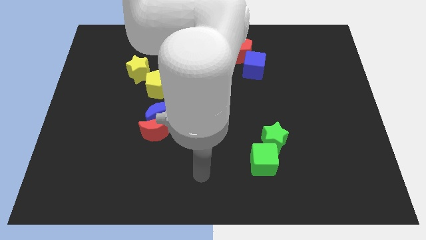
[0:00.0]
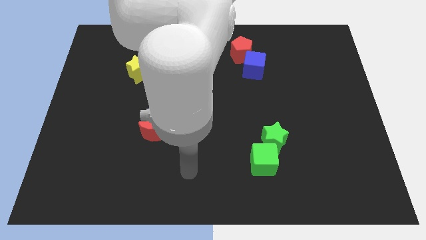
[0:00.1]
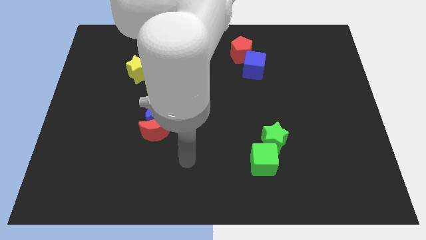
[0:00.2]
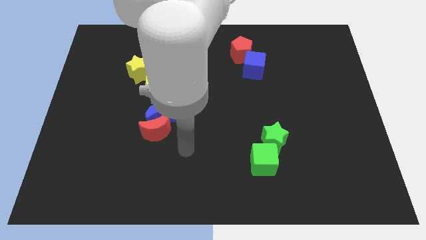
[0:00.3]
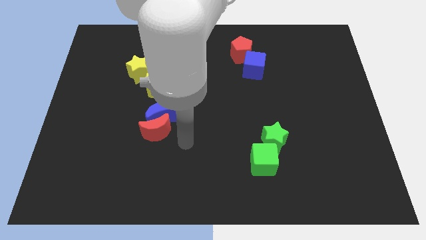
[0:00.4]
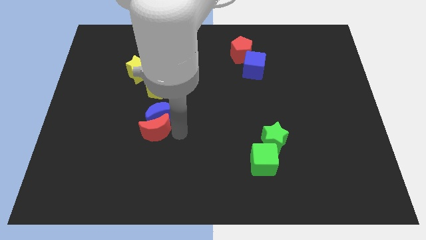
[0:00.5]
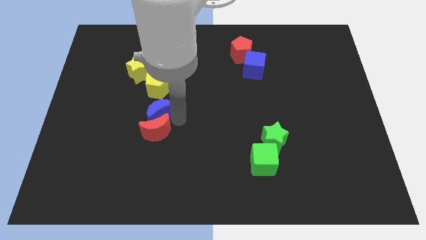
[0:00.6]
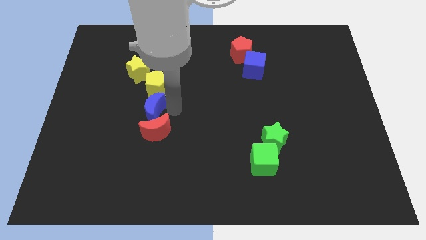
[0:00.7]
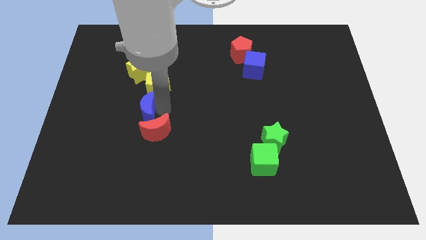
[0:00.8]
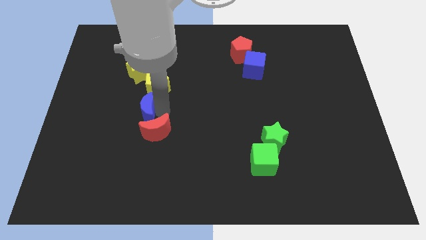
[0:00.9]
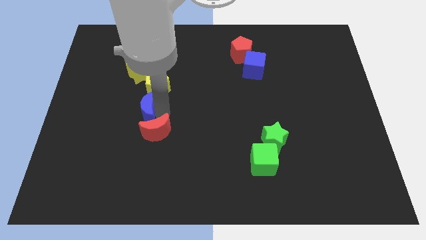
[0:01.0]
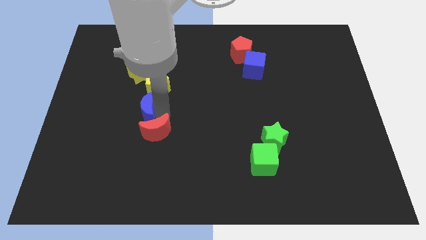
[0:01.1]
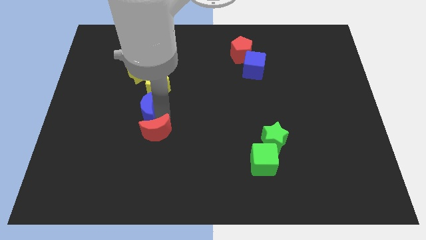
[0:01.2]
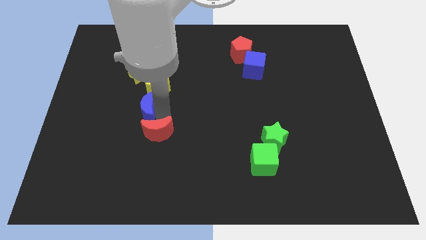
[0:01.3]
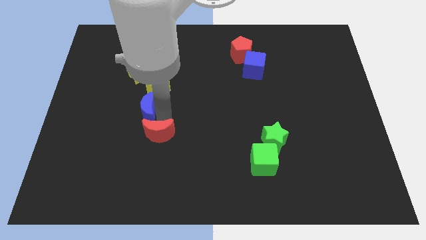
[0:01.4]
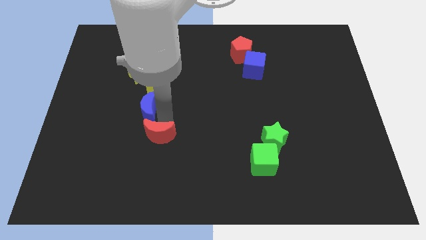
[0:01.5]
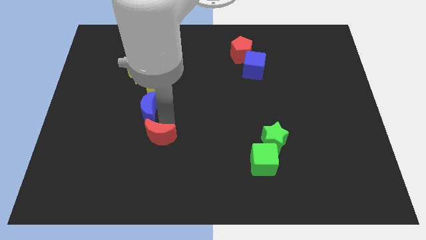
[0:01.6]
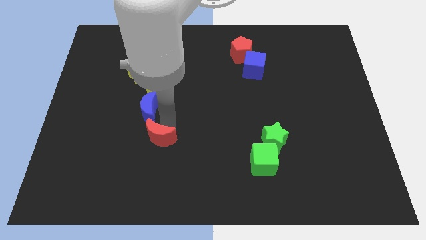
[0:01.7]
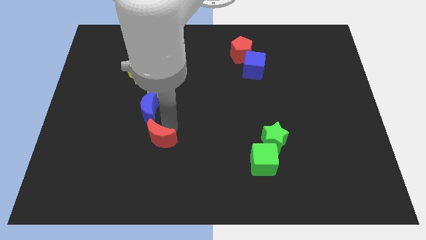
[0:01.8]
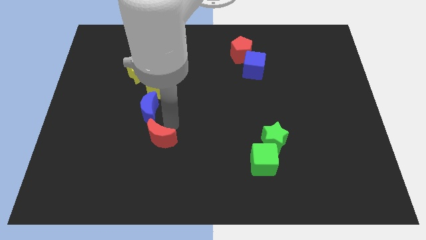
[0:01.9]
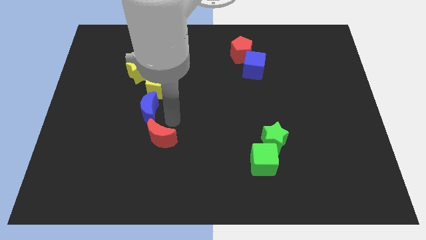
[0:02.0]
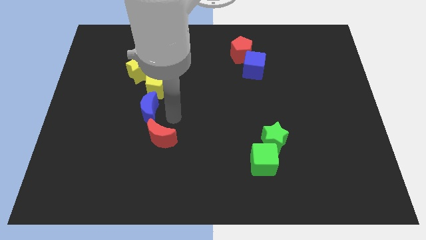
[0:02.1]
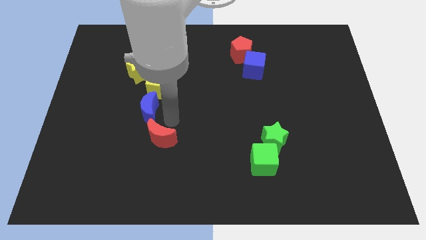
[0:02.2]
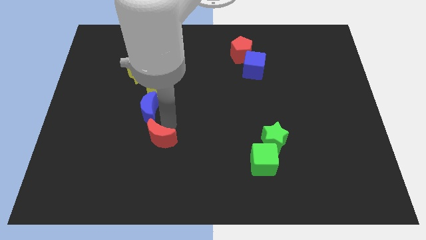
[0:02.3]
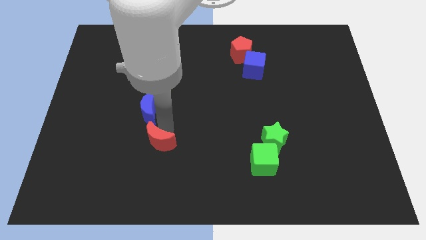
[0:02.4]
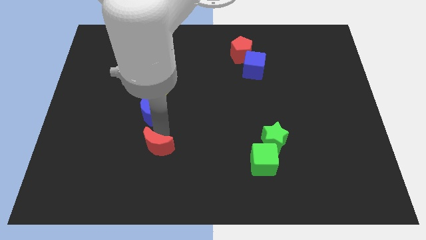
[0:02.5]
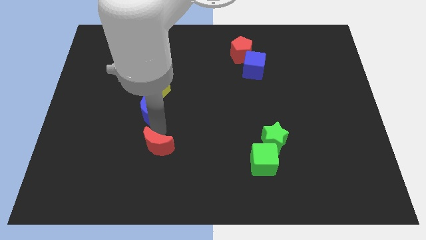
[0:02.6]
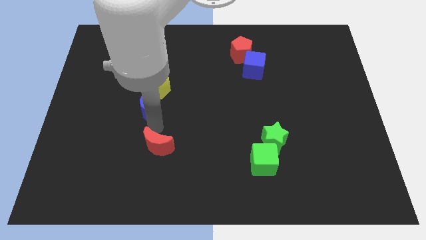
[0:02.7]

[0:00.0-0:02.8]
pull the red moon apart from the blue moon

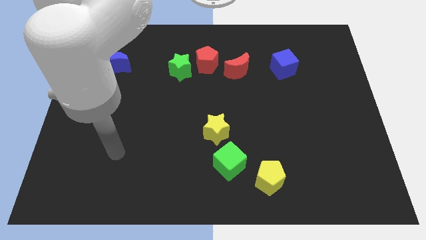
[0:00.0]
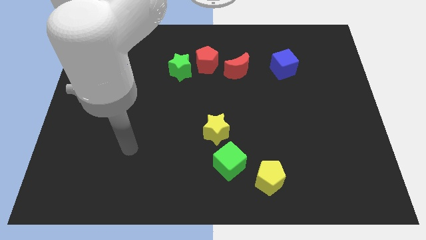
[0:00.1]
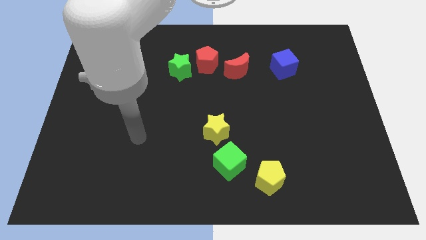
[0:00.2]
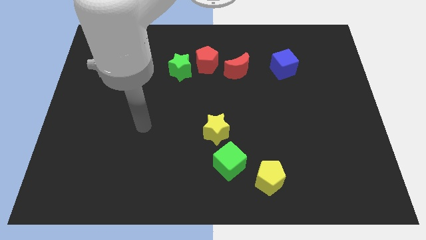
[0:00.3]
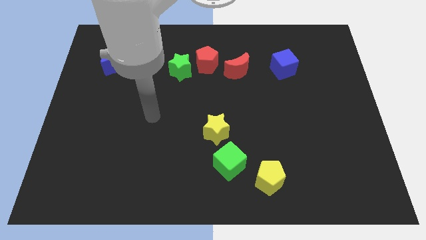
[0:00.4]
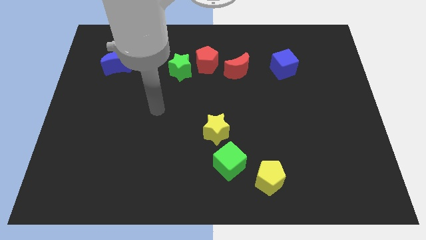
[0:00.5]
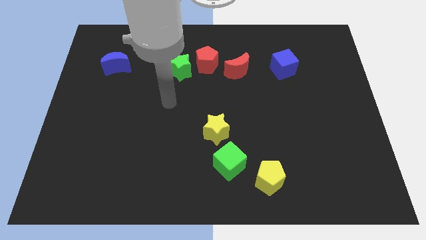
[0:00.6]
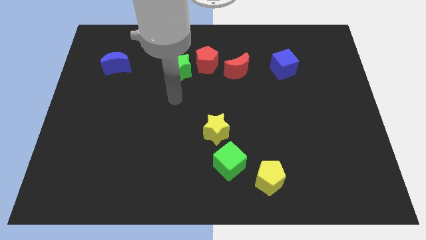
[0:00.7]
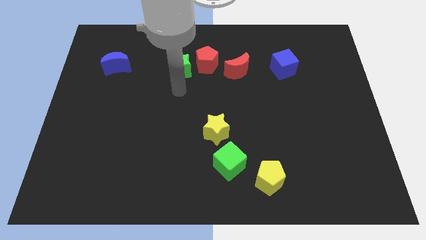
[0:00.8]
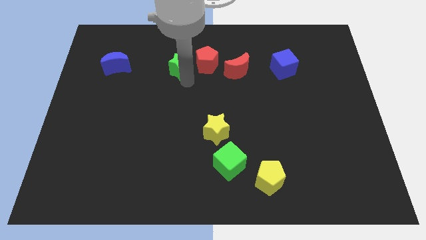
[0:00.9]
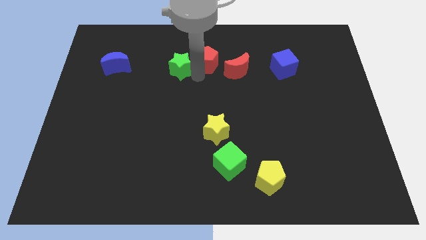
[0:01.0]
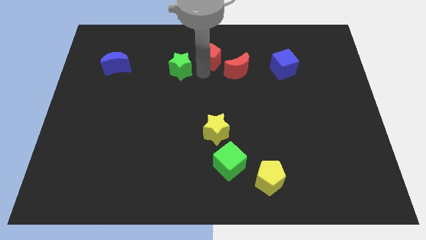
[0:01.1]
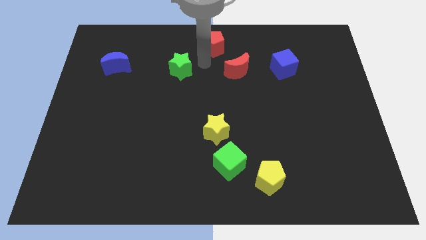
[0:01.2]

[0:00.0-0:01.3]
move the green star away from the red pentagon

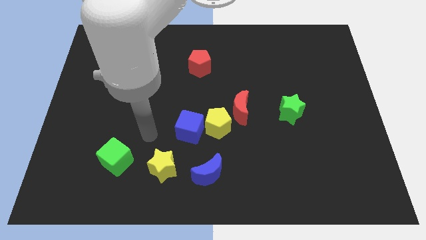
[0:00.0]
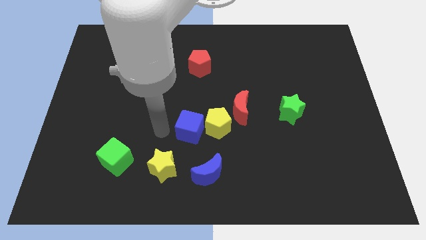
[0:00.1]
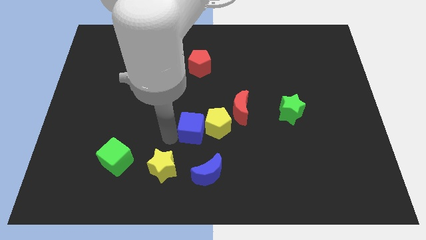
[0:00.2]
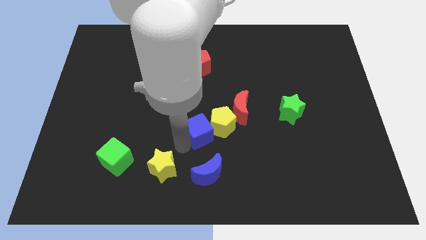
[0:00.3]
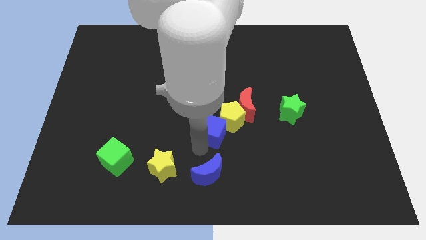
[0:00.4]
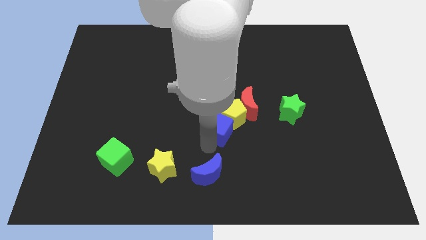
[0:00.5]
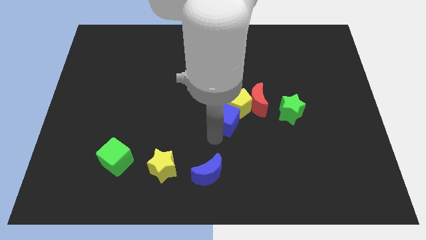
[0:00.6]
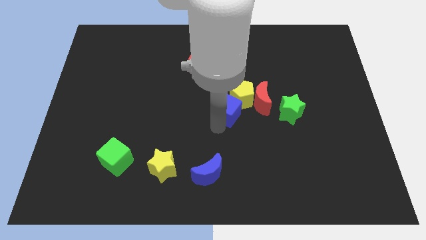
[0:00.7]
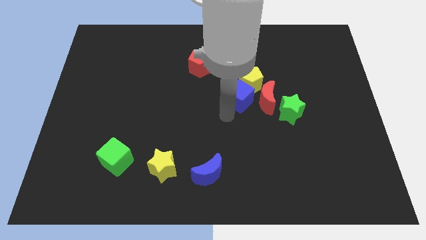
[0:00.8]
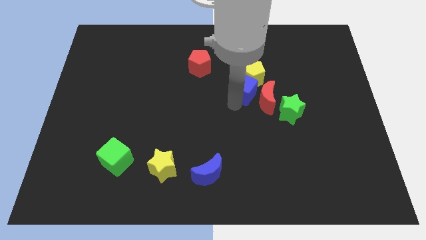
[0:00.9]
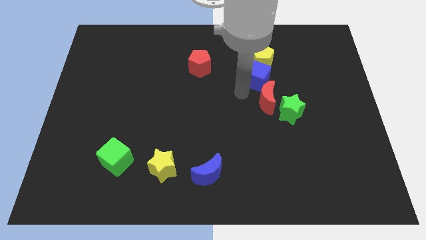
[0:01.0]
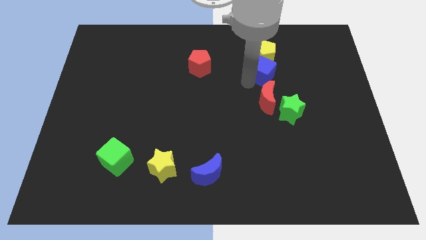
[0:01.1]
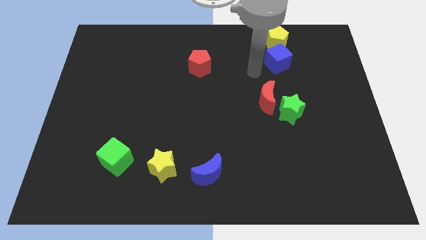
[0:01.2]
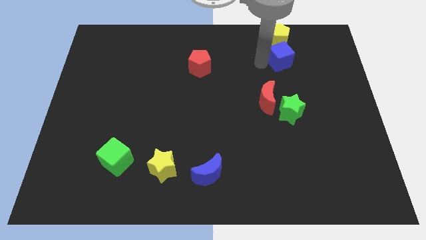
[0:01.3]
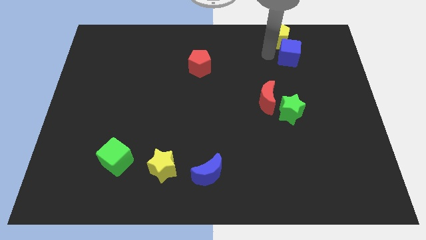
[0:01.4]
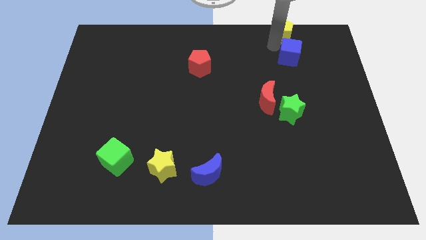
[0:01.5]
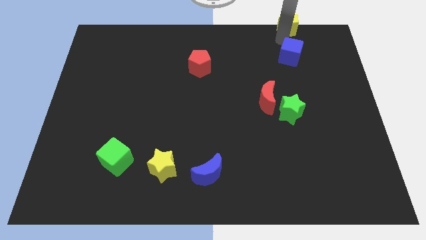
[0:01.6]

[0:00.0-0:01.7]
separate the blue cube from the yellow pentagon

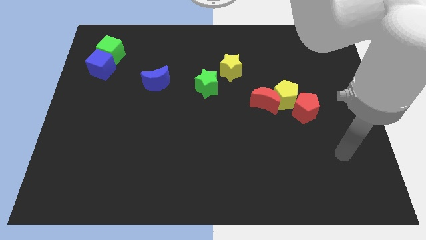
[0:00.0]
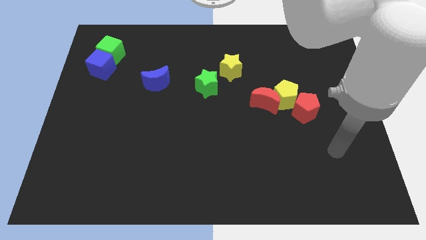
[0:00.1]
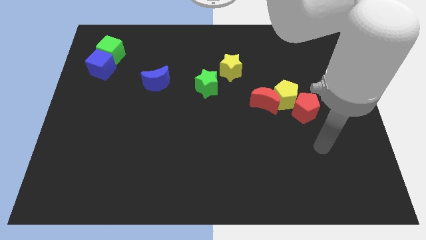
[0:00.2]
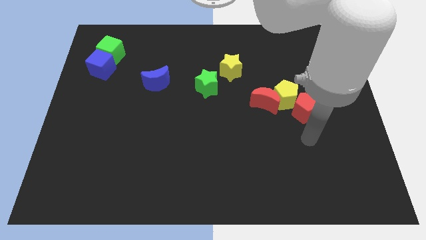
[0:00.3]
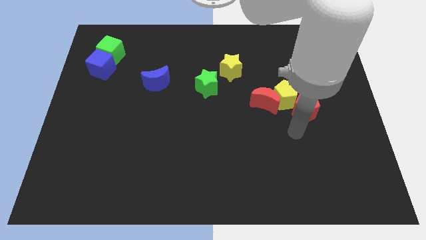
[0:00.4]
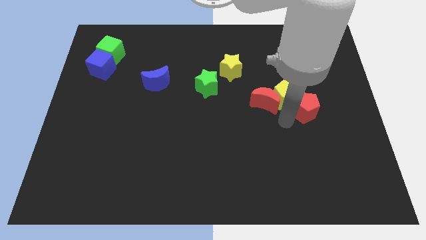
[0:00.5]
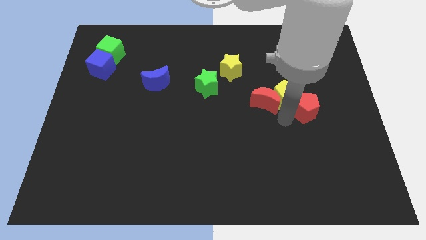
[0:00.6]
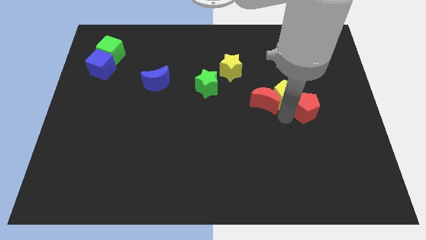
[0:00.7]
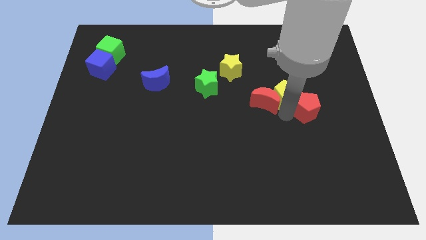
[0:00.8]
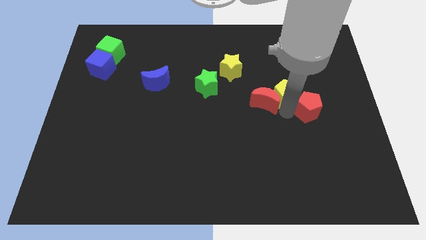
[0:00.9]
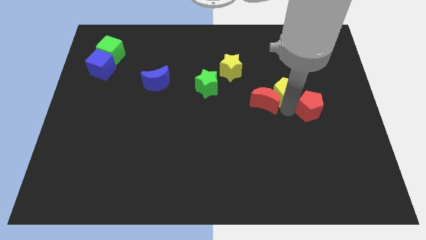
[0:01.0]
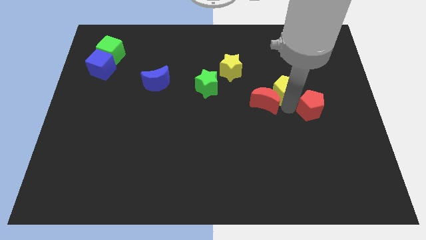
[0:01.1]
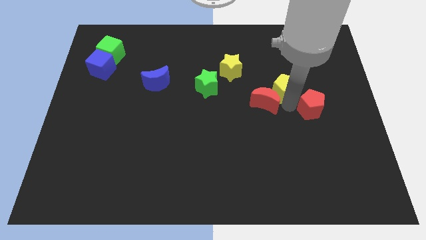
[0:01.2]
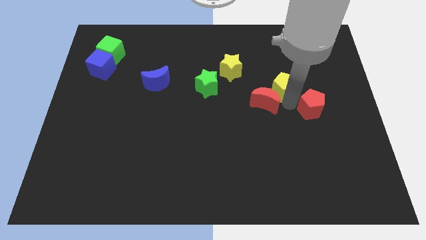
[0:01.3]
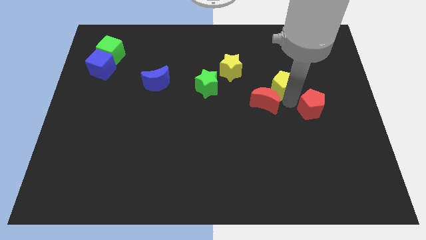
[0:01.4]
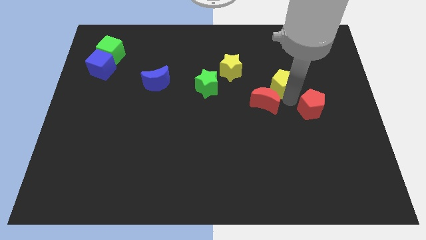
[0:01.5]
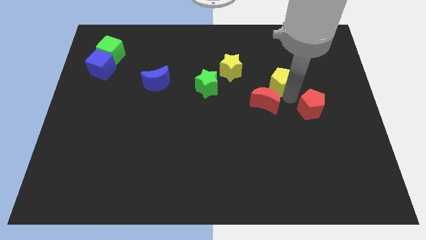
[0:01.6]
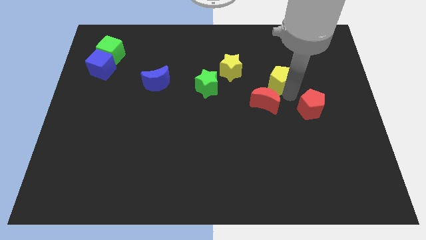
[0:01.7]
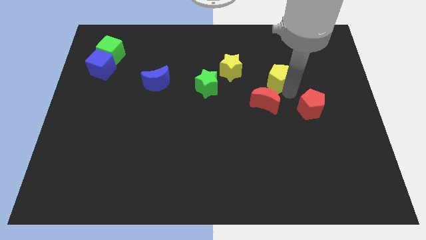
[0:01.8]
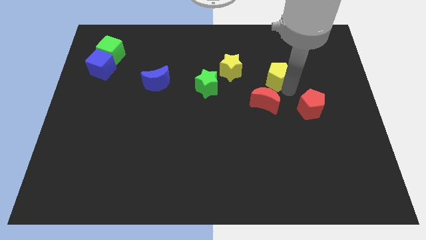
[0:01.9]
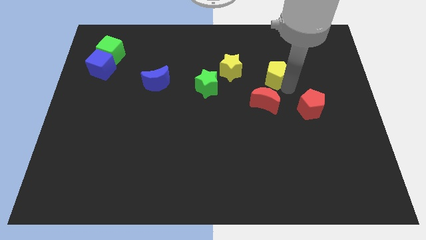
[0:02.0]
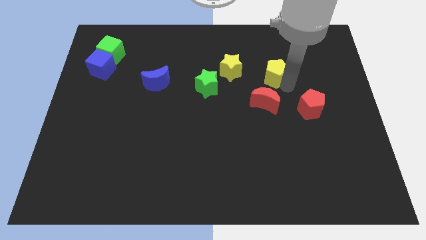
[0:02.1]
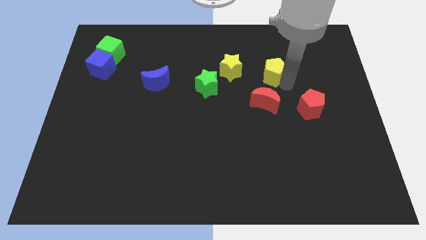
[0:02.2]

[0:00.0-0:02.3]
separate the yellow pentagon from the red moon and red pentagon

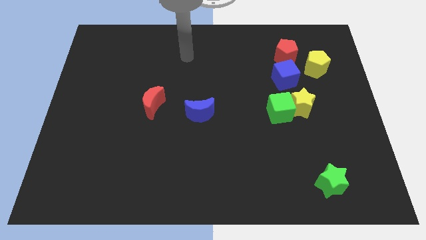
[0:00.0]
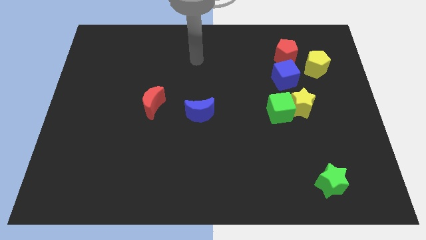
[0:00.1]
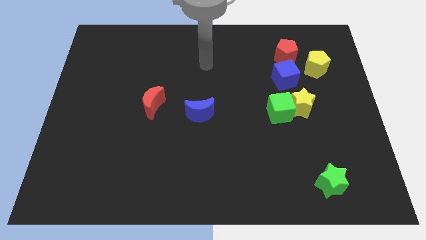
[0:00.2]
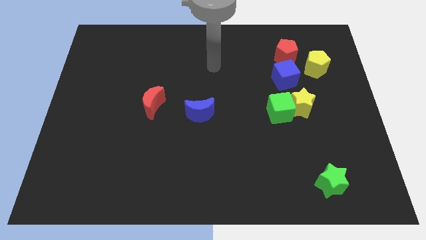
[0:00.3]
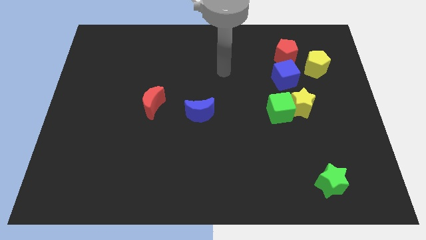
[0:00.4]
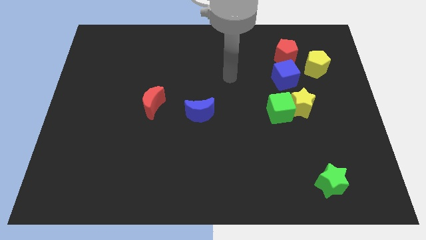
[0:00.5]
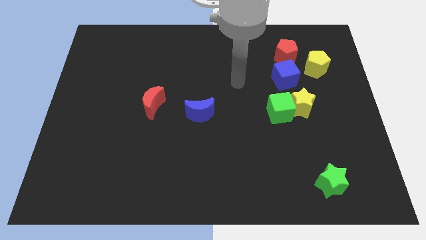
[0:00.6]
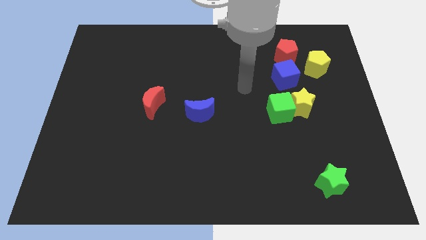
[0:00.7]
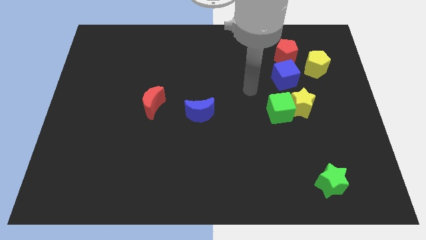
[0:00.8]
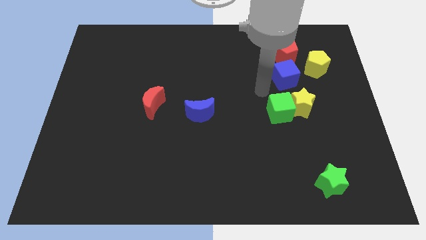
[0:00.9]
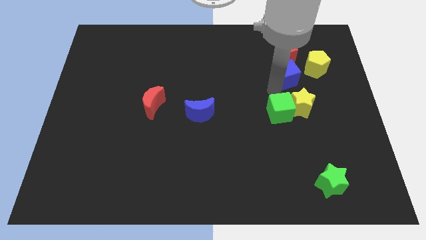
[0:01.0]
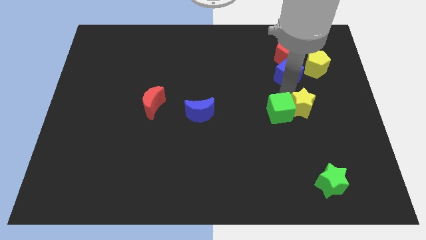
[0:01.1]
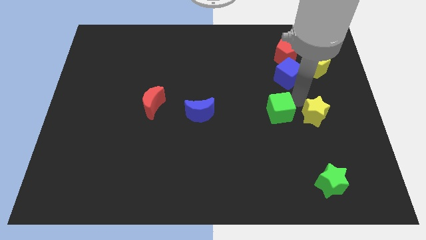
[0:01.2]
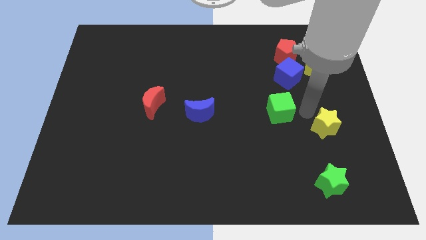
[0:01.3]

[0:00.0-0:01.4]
move the green cube away from the yellow star

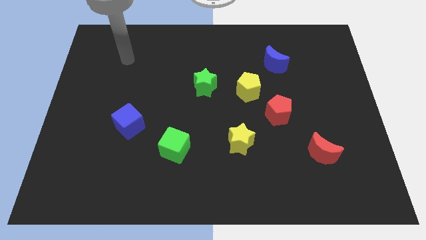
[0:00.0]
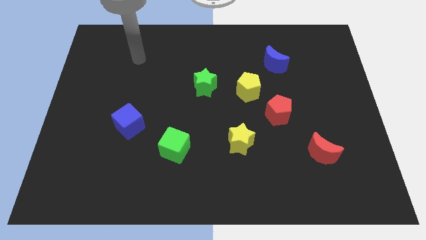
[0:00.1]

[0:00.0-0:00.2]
move the red pentagon away from the yellow pentagon
